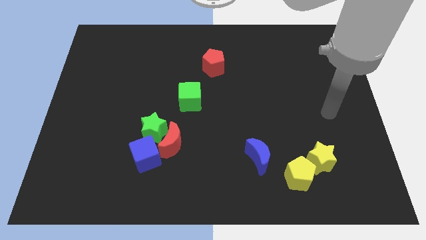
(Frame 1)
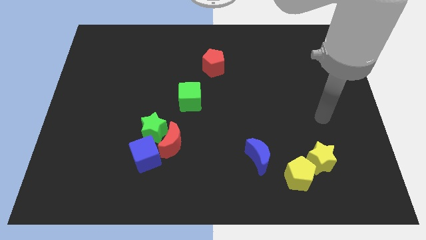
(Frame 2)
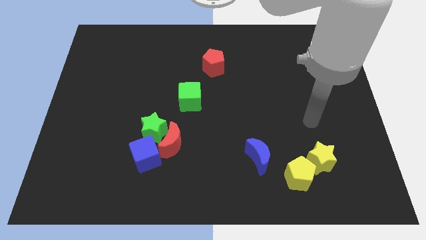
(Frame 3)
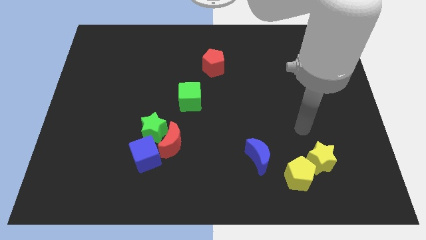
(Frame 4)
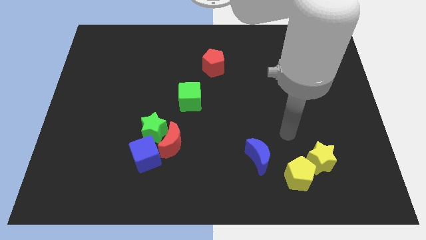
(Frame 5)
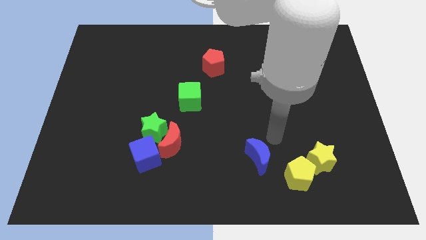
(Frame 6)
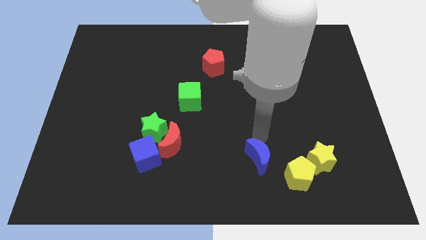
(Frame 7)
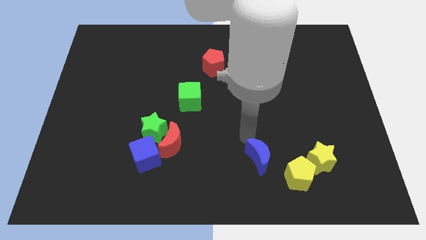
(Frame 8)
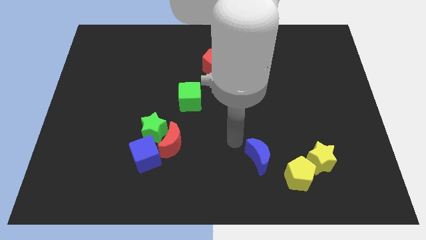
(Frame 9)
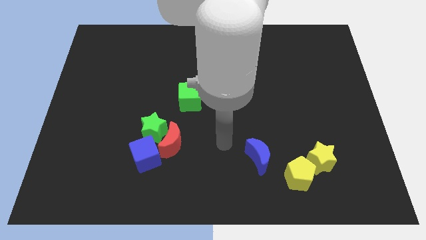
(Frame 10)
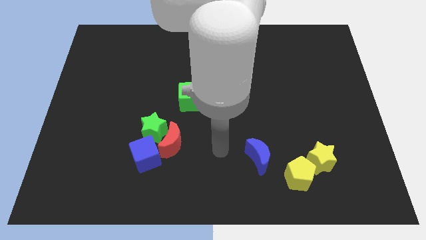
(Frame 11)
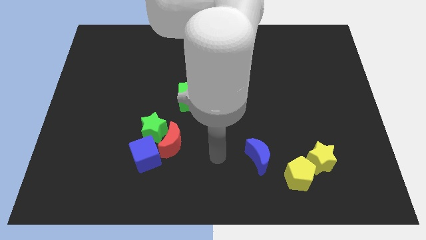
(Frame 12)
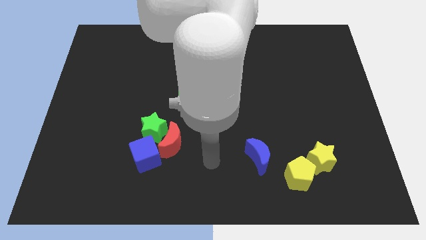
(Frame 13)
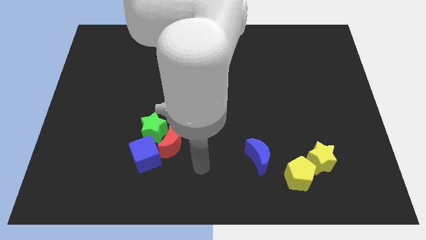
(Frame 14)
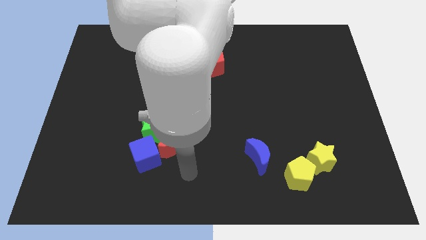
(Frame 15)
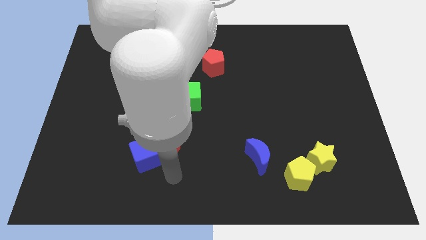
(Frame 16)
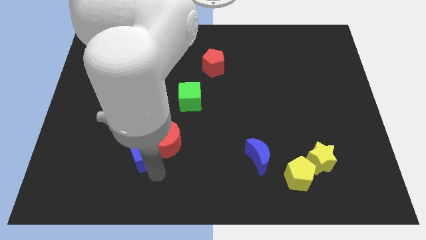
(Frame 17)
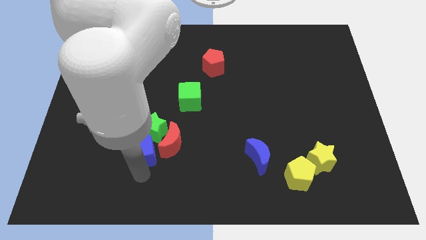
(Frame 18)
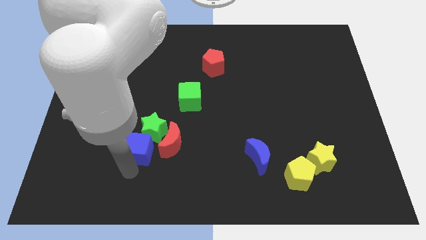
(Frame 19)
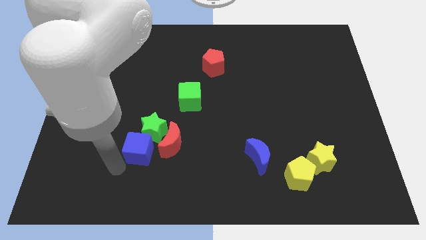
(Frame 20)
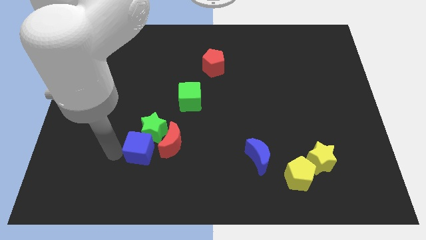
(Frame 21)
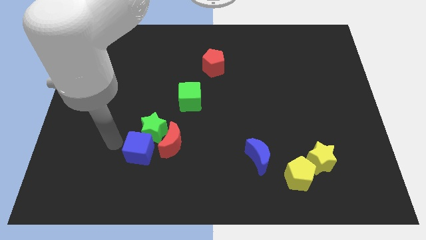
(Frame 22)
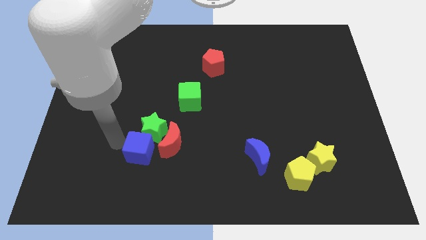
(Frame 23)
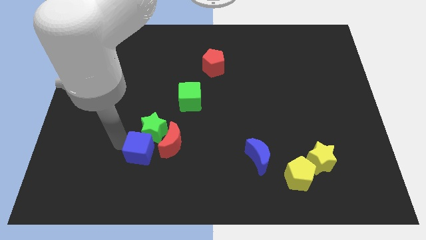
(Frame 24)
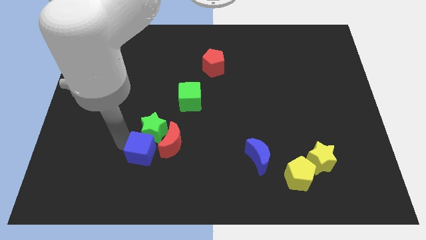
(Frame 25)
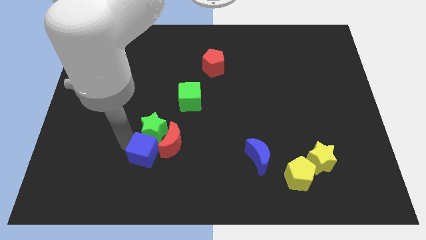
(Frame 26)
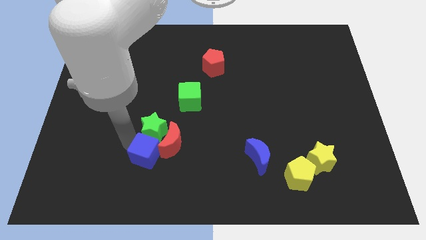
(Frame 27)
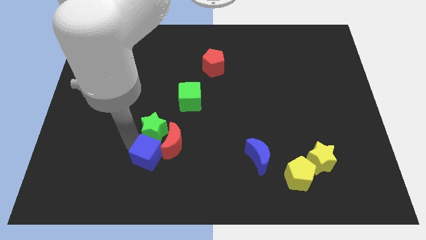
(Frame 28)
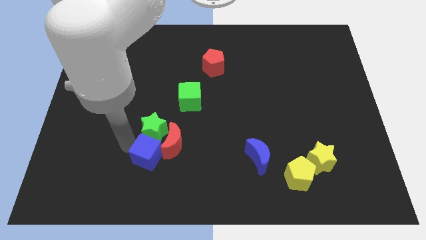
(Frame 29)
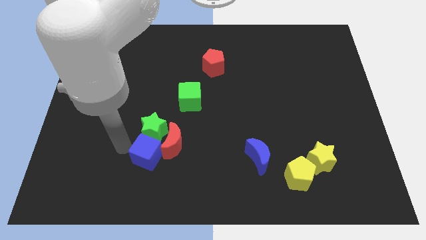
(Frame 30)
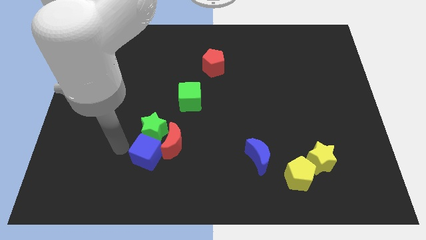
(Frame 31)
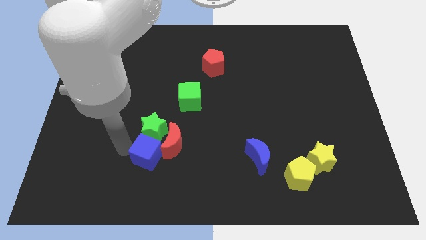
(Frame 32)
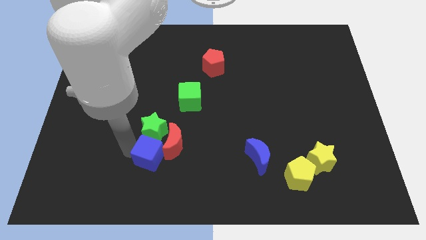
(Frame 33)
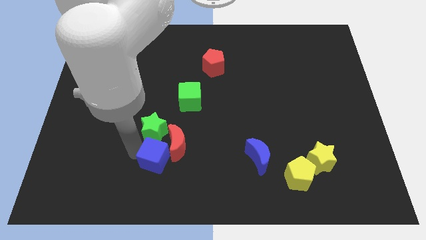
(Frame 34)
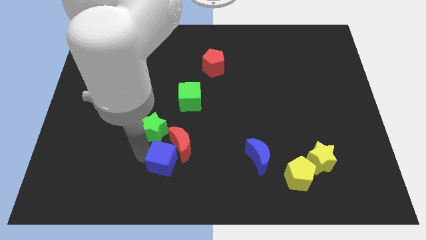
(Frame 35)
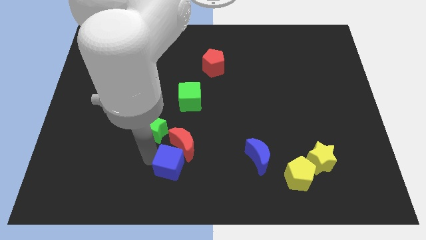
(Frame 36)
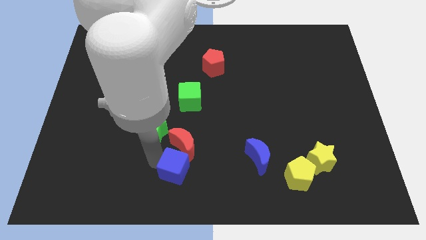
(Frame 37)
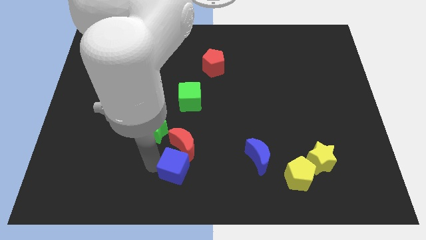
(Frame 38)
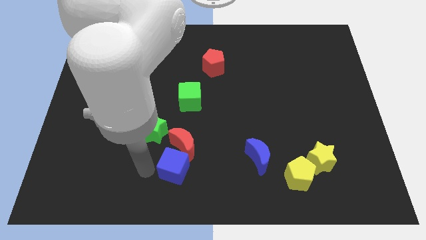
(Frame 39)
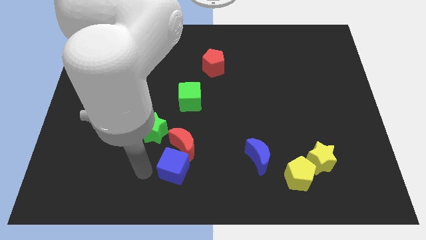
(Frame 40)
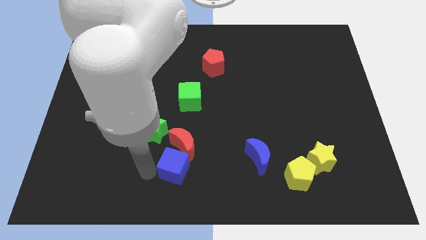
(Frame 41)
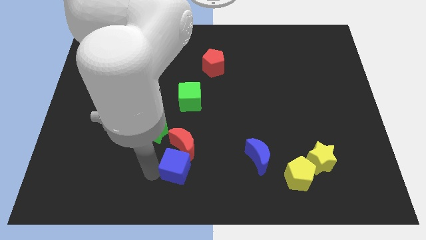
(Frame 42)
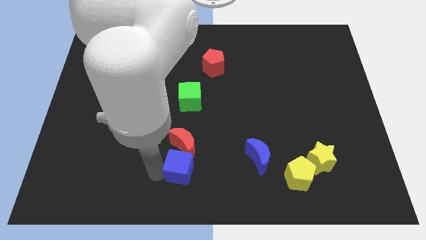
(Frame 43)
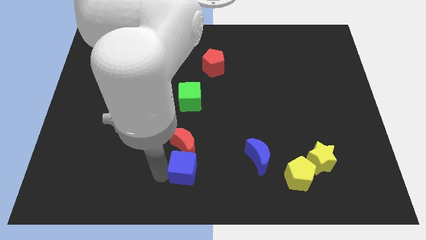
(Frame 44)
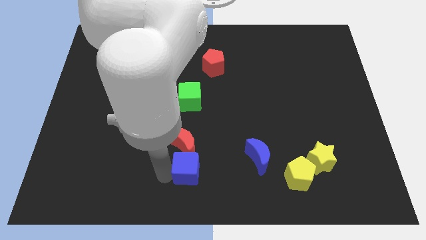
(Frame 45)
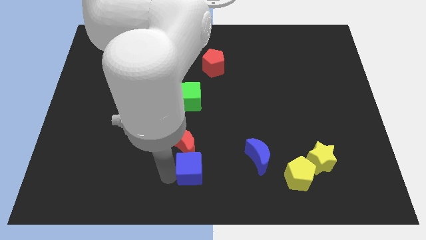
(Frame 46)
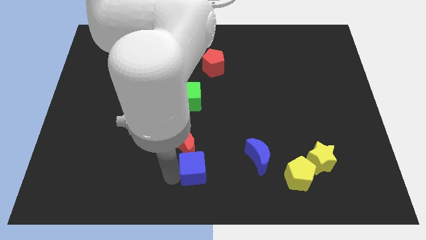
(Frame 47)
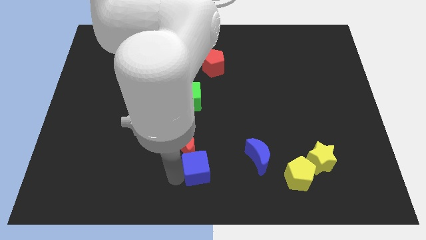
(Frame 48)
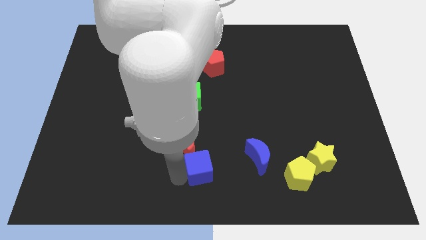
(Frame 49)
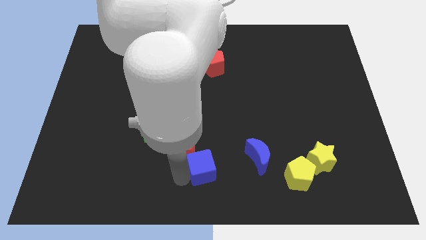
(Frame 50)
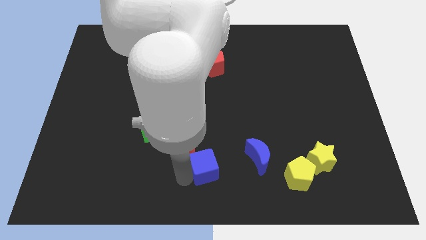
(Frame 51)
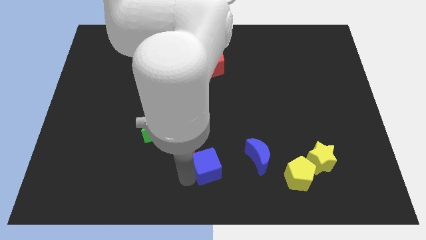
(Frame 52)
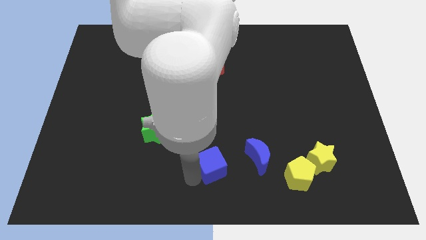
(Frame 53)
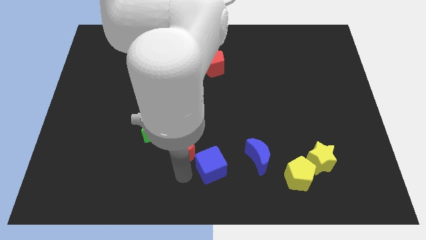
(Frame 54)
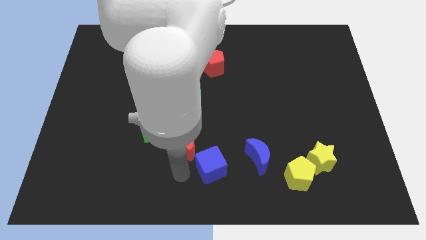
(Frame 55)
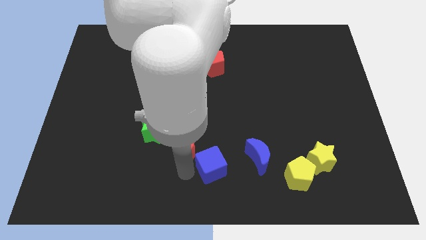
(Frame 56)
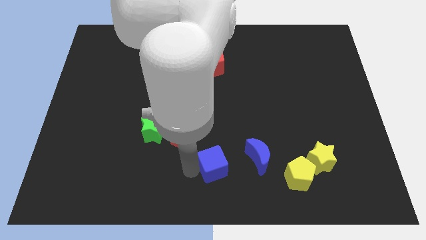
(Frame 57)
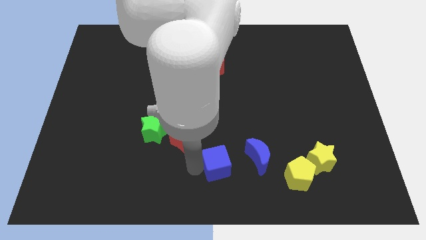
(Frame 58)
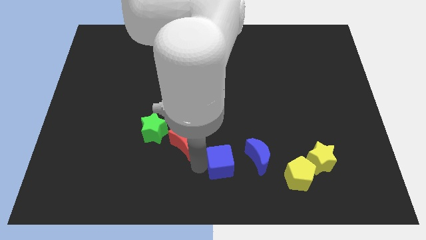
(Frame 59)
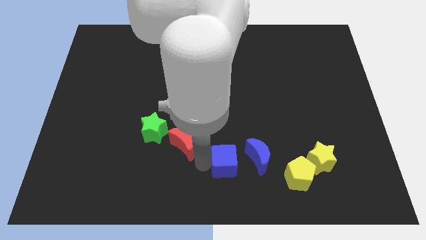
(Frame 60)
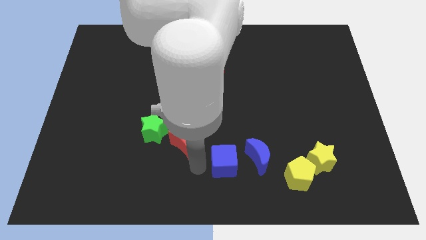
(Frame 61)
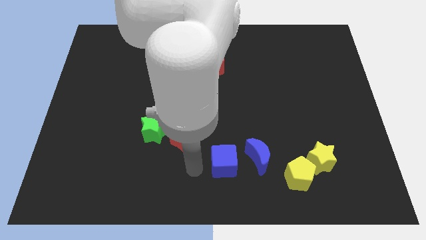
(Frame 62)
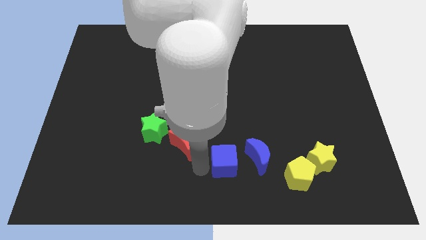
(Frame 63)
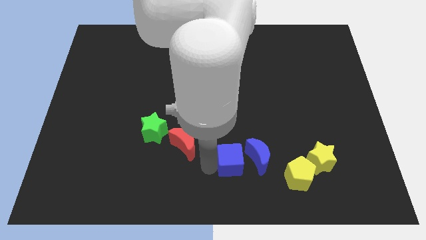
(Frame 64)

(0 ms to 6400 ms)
slide the blue cube towards the blue moon

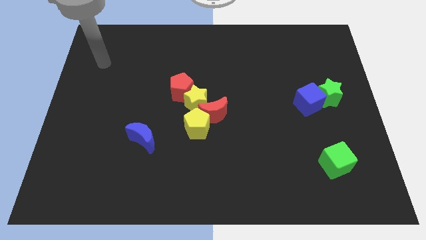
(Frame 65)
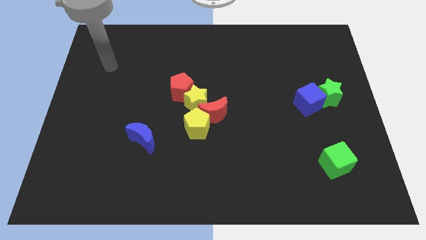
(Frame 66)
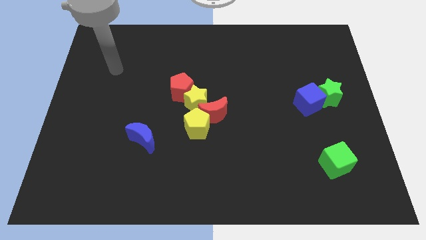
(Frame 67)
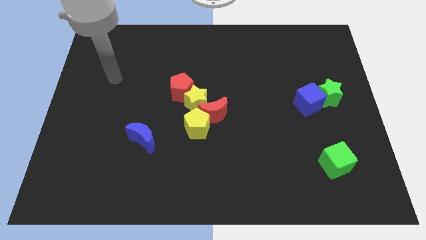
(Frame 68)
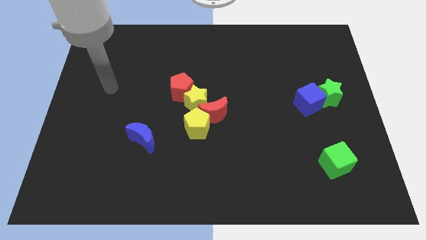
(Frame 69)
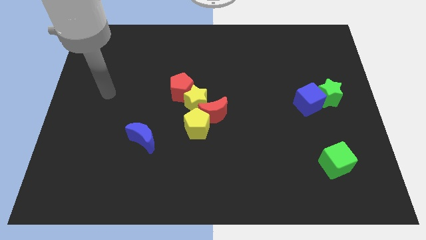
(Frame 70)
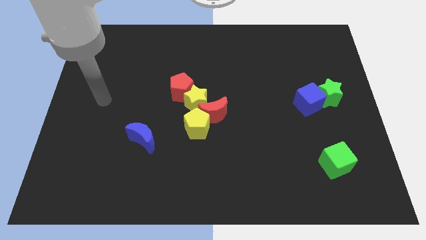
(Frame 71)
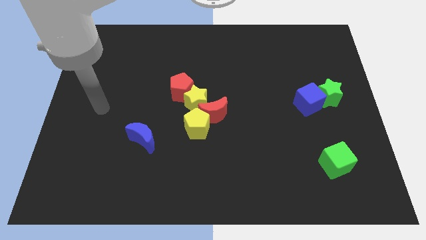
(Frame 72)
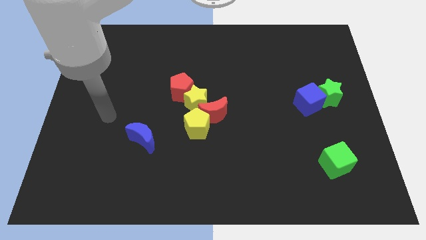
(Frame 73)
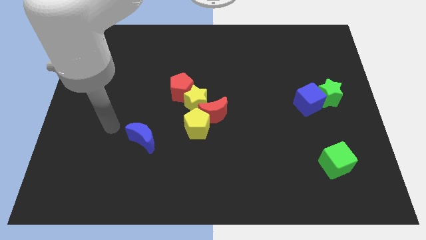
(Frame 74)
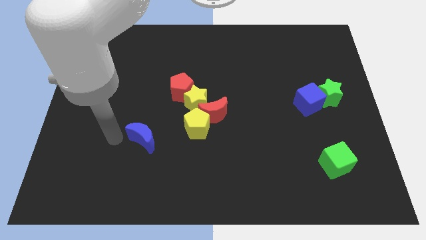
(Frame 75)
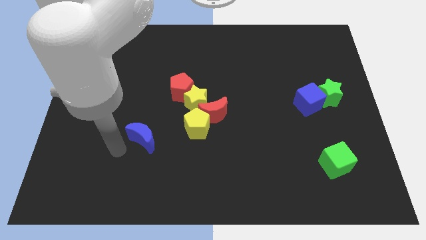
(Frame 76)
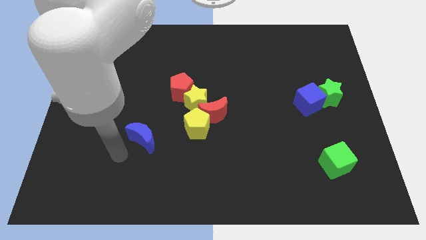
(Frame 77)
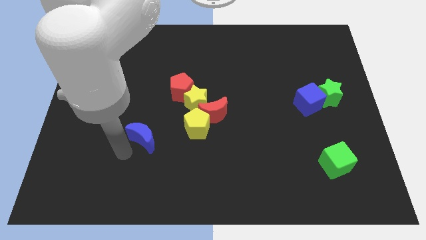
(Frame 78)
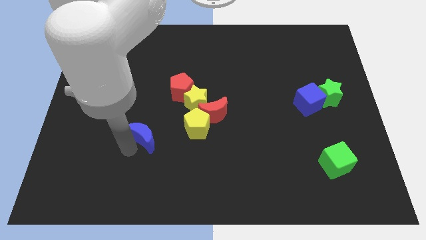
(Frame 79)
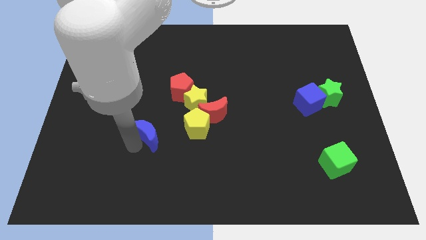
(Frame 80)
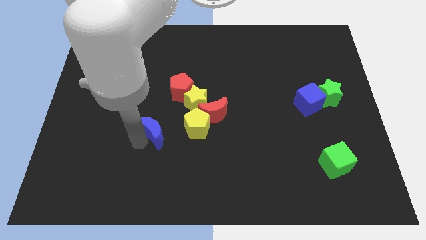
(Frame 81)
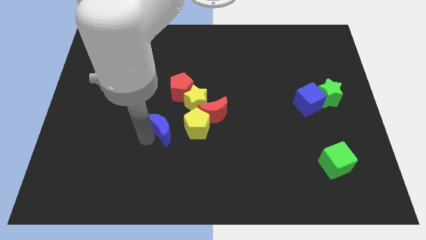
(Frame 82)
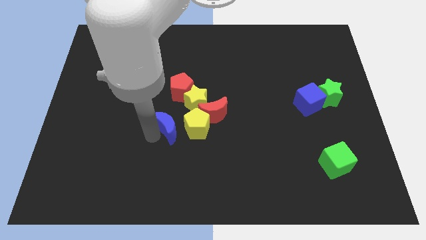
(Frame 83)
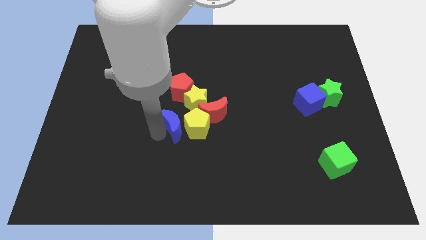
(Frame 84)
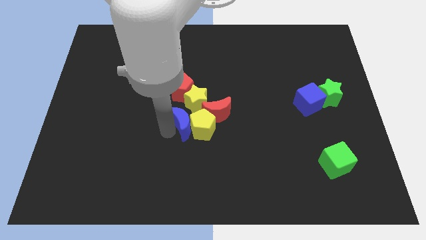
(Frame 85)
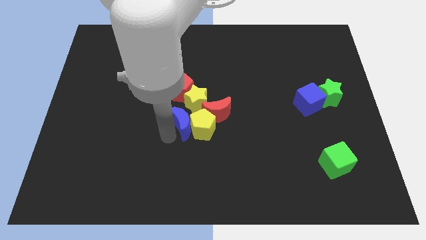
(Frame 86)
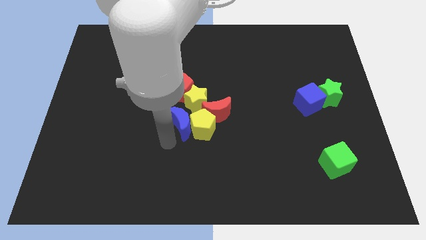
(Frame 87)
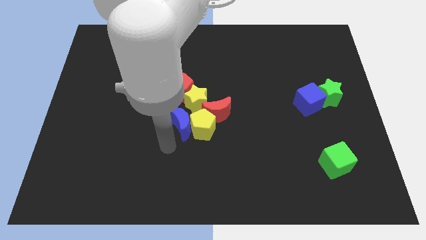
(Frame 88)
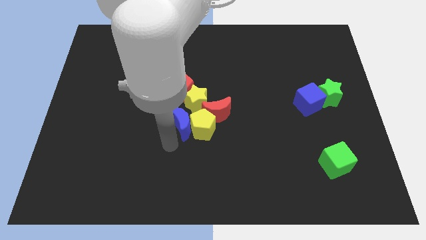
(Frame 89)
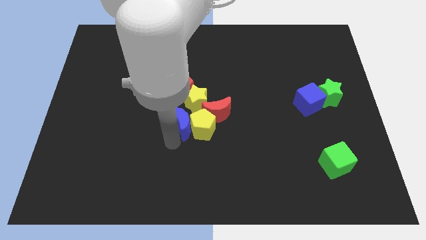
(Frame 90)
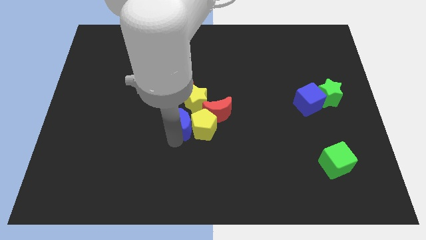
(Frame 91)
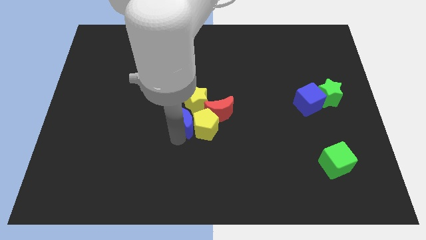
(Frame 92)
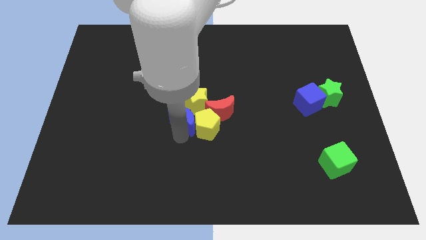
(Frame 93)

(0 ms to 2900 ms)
put the blue moon to the yellow star
